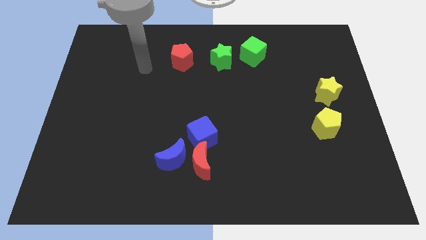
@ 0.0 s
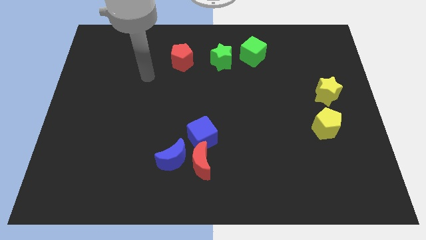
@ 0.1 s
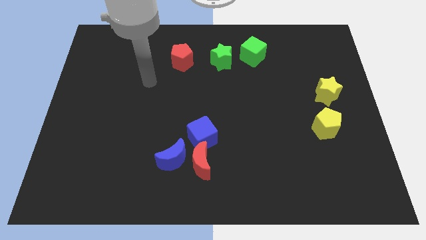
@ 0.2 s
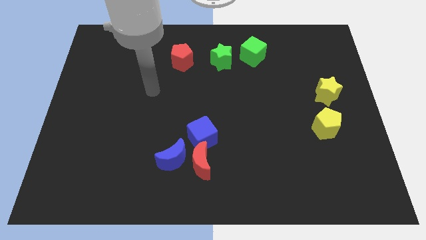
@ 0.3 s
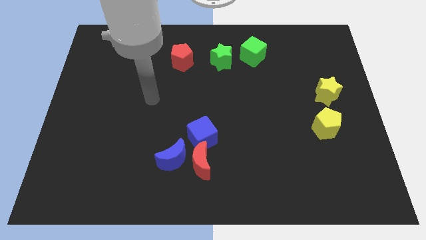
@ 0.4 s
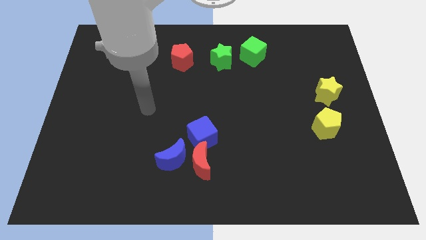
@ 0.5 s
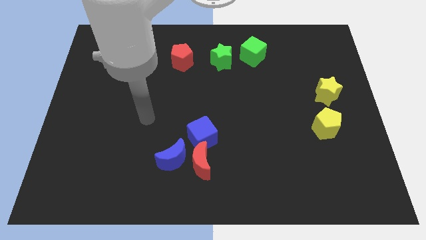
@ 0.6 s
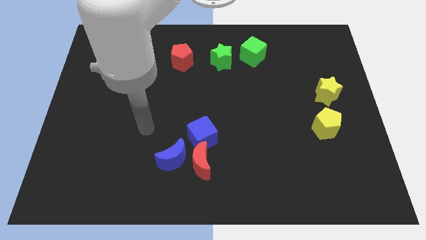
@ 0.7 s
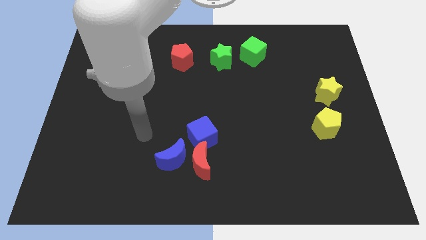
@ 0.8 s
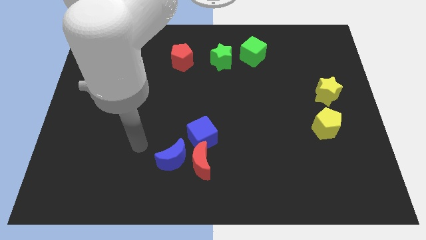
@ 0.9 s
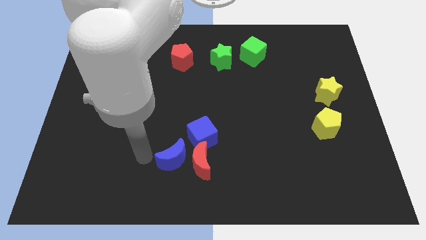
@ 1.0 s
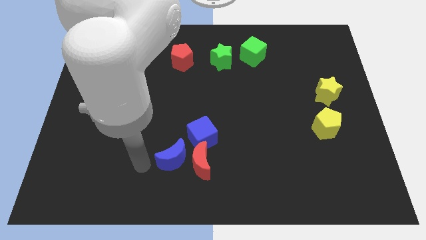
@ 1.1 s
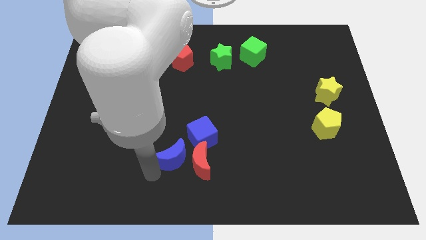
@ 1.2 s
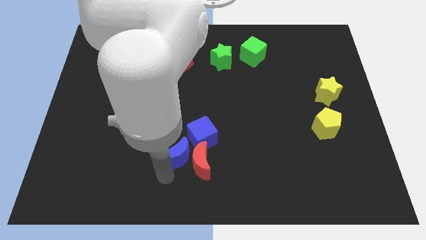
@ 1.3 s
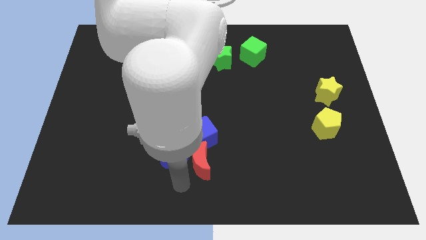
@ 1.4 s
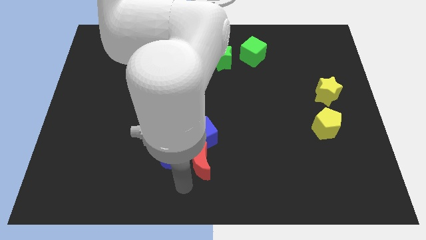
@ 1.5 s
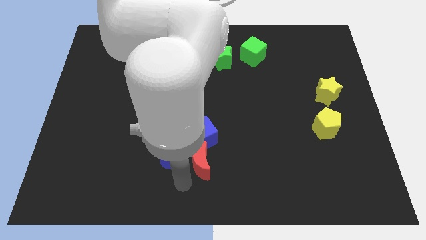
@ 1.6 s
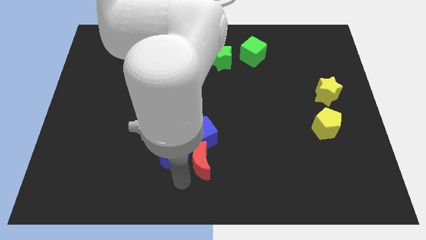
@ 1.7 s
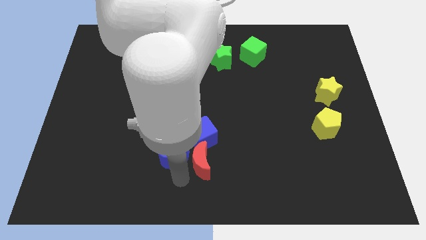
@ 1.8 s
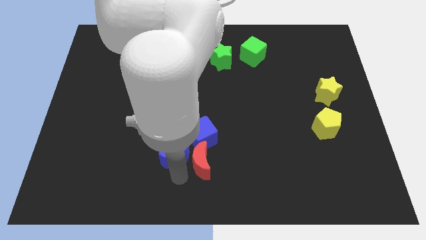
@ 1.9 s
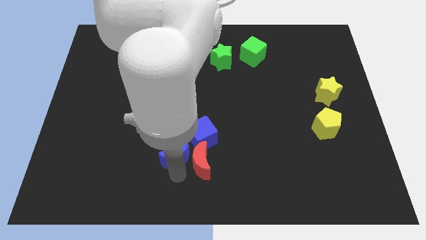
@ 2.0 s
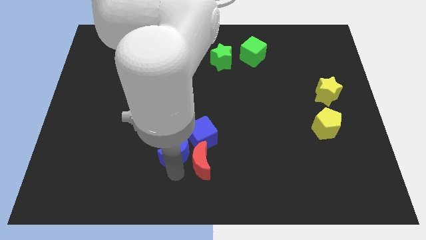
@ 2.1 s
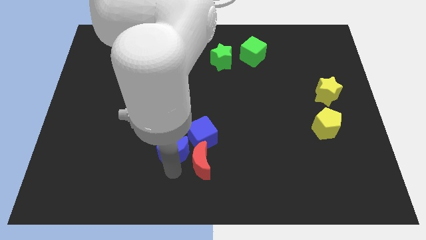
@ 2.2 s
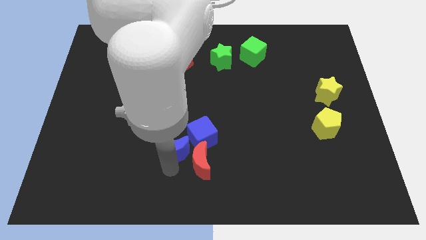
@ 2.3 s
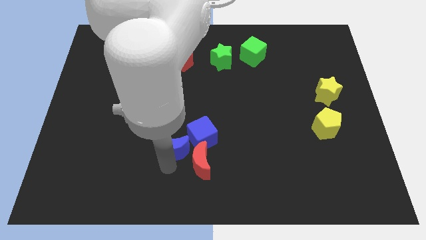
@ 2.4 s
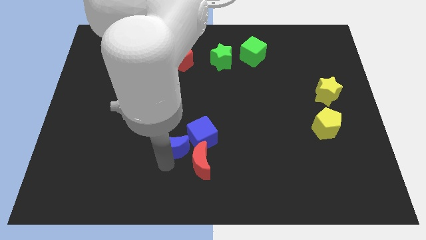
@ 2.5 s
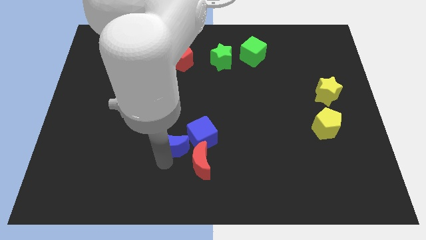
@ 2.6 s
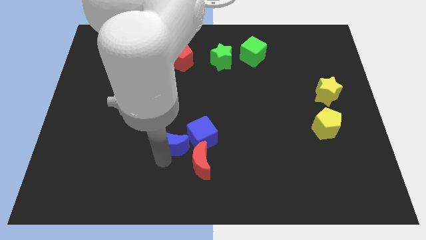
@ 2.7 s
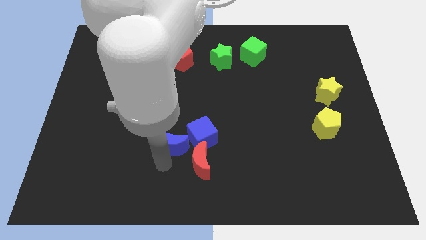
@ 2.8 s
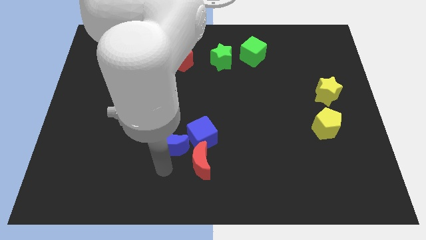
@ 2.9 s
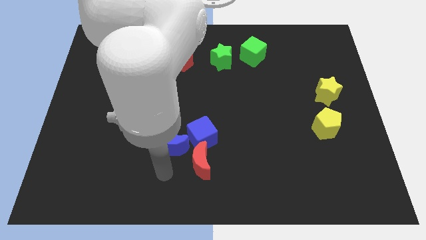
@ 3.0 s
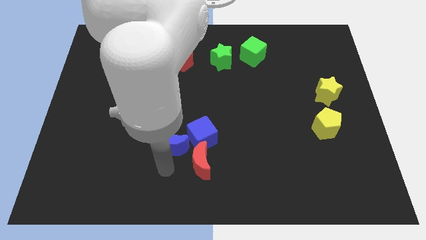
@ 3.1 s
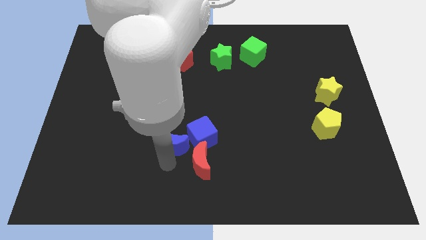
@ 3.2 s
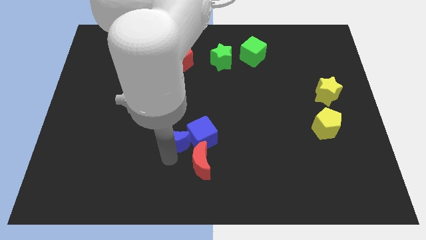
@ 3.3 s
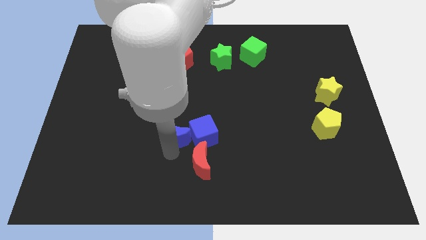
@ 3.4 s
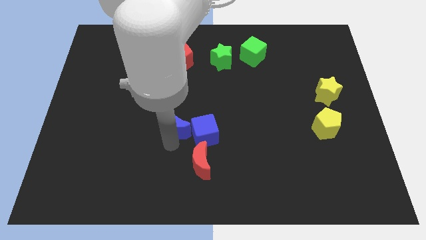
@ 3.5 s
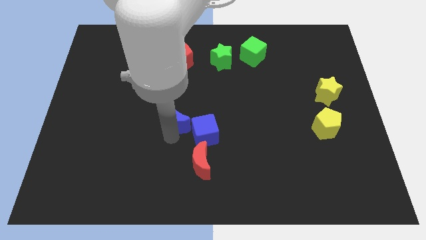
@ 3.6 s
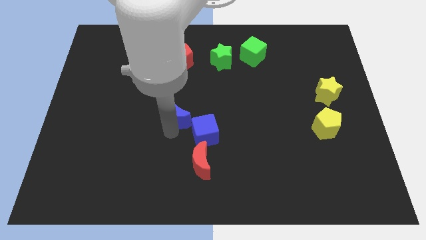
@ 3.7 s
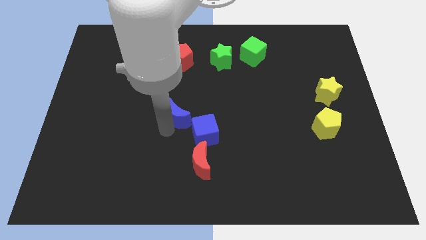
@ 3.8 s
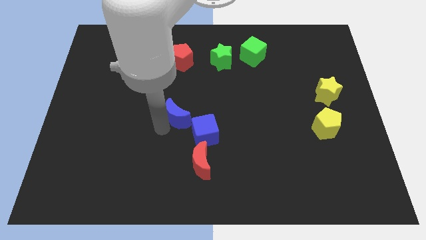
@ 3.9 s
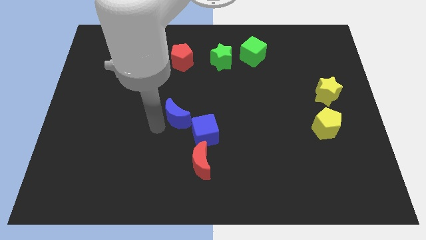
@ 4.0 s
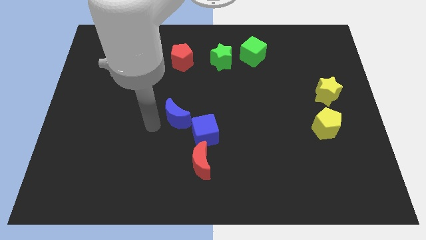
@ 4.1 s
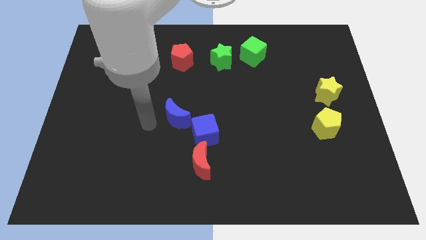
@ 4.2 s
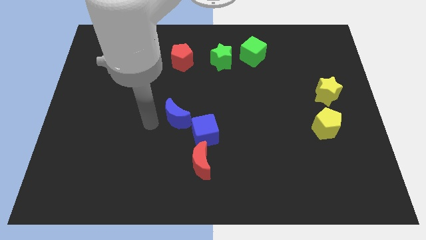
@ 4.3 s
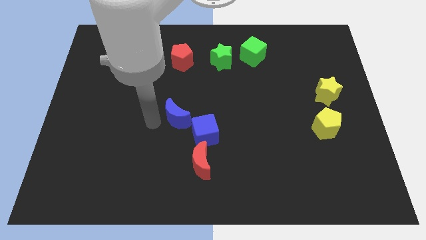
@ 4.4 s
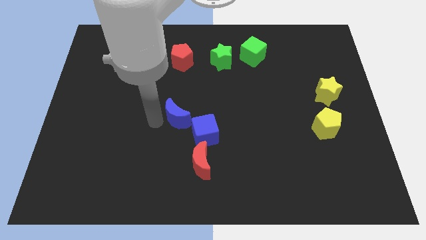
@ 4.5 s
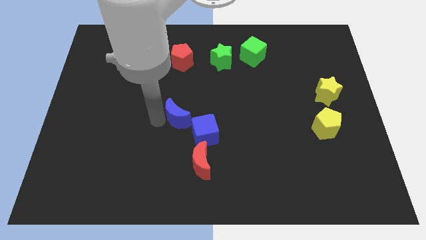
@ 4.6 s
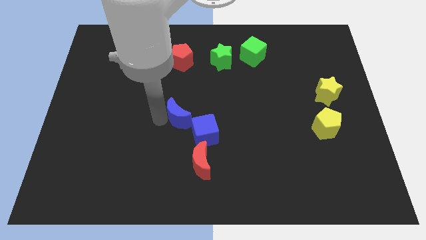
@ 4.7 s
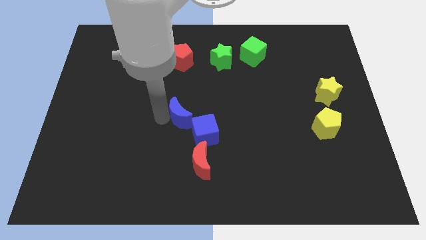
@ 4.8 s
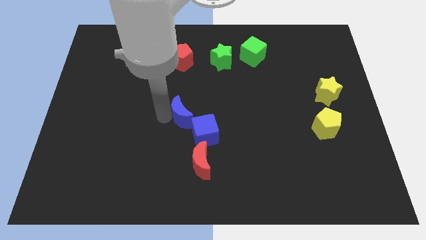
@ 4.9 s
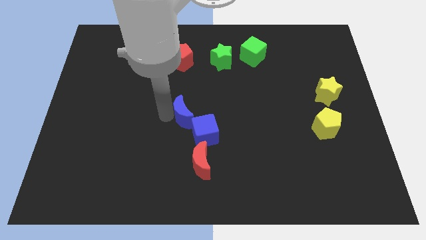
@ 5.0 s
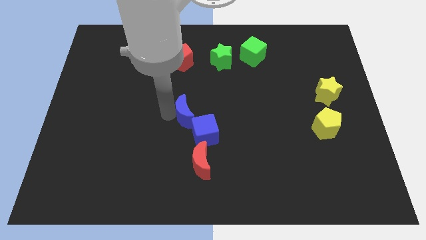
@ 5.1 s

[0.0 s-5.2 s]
slide the blue moon to the top of the blue cube

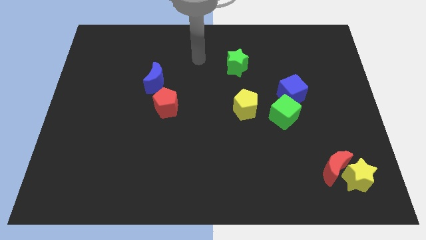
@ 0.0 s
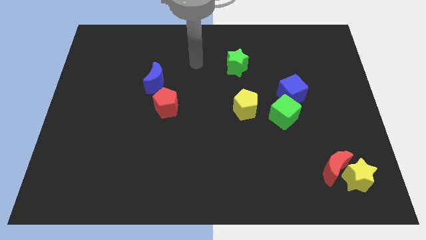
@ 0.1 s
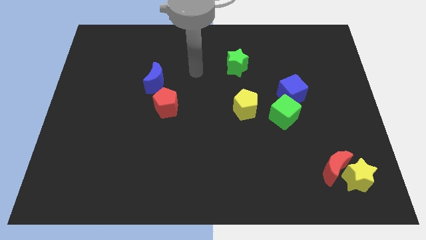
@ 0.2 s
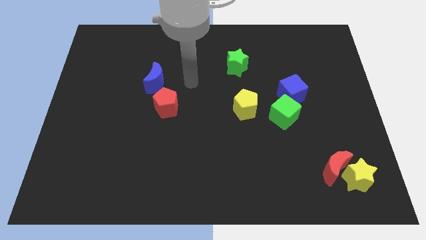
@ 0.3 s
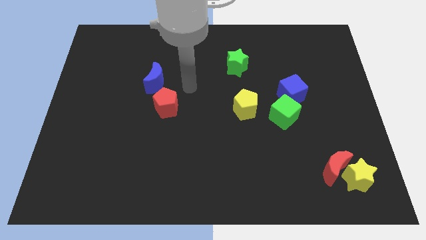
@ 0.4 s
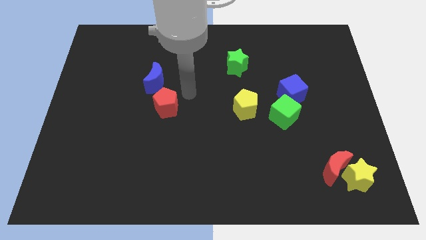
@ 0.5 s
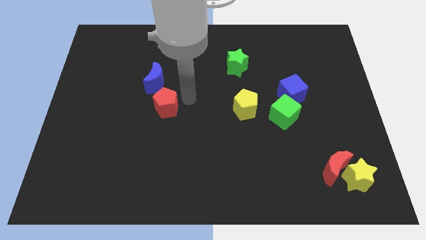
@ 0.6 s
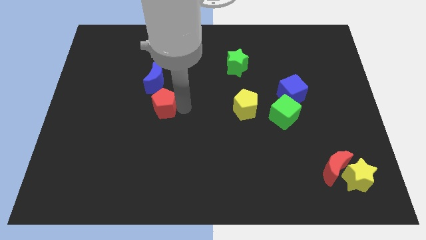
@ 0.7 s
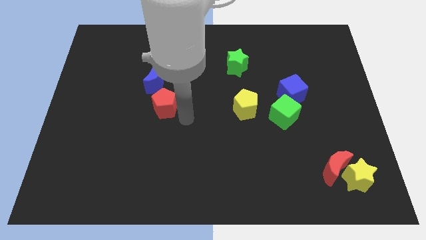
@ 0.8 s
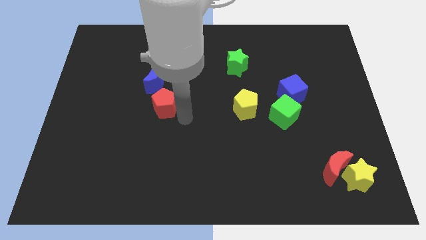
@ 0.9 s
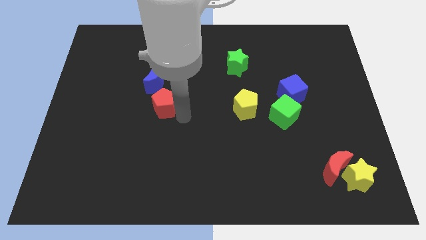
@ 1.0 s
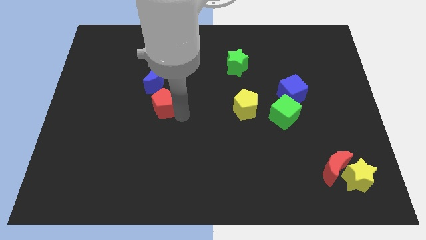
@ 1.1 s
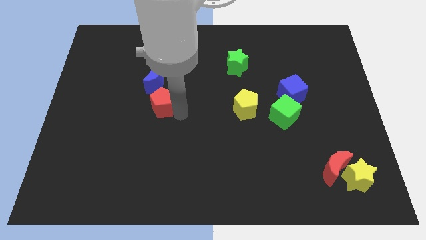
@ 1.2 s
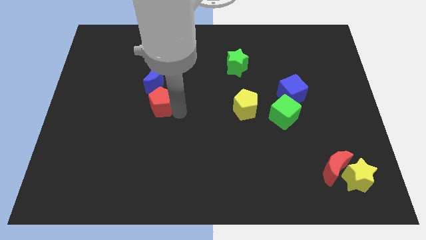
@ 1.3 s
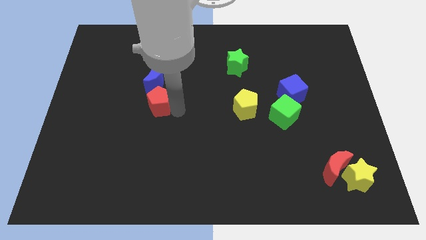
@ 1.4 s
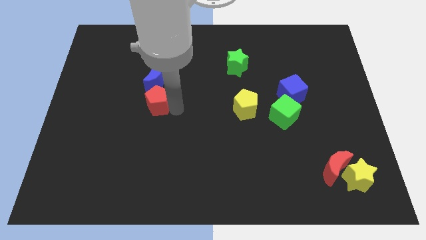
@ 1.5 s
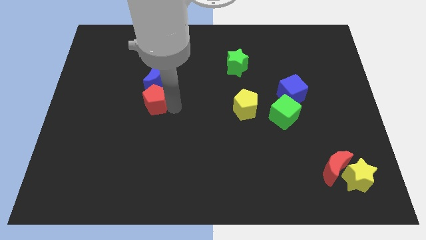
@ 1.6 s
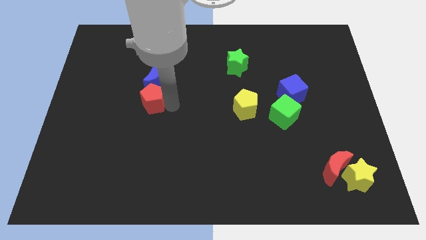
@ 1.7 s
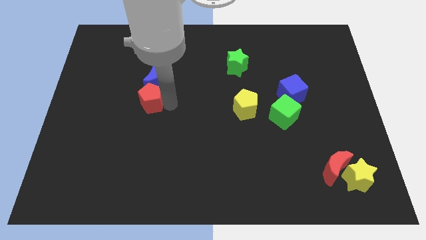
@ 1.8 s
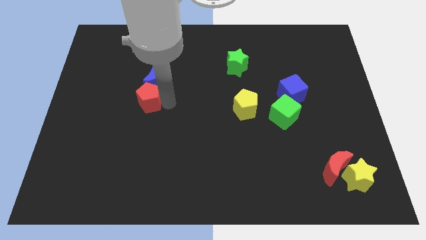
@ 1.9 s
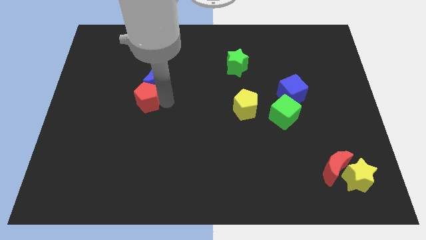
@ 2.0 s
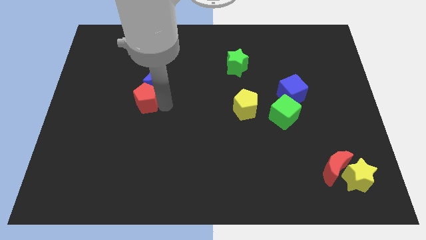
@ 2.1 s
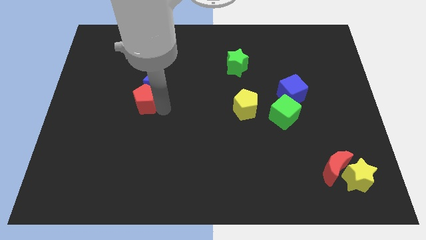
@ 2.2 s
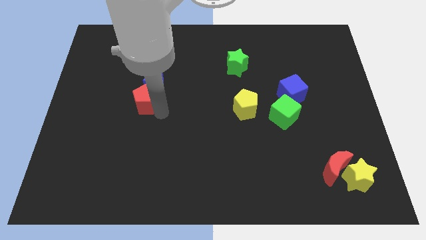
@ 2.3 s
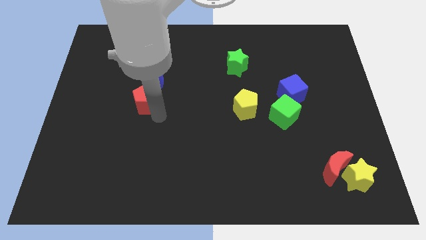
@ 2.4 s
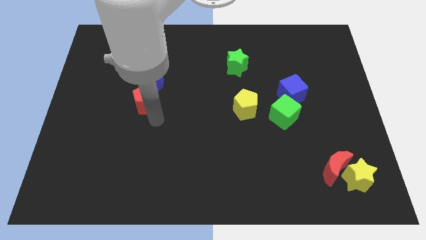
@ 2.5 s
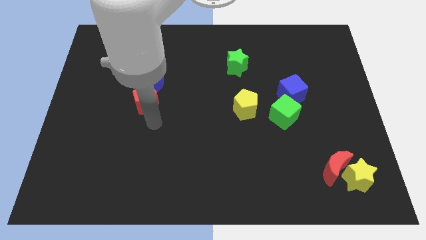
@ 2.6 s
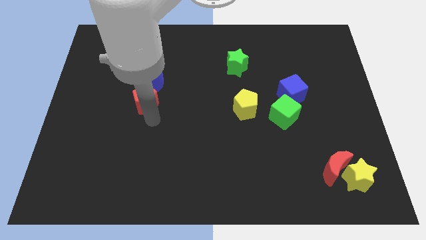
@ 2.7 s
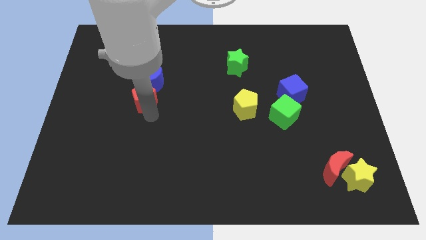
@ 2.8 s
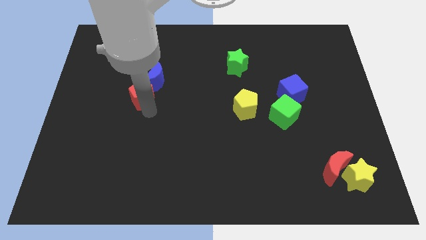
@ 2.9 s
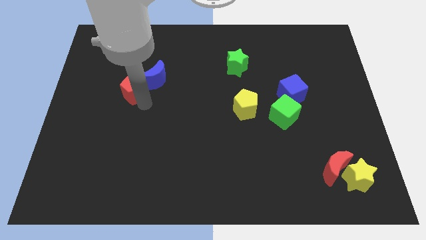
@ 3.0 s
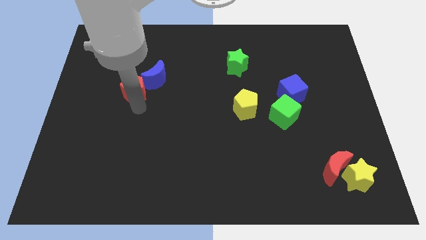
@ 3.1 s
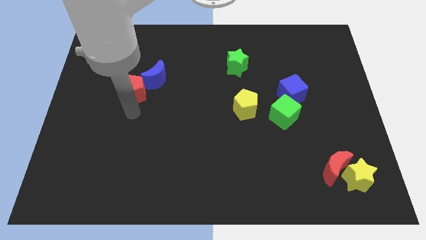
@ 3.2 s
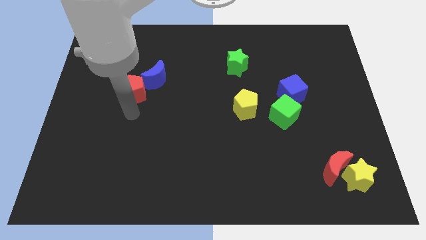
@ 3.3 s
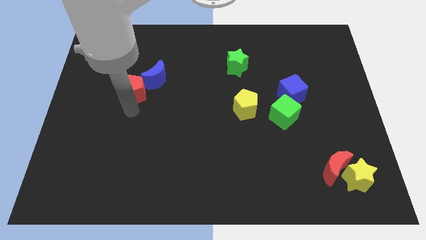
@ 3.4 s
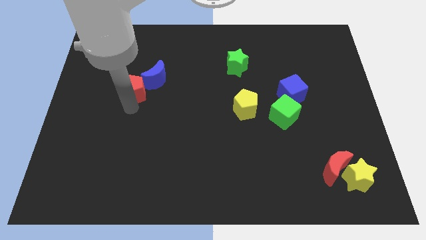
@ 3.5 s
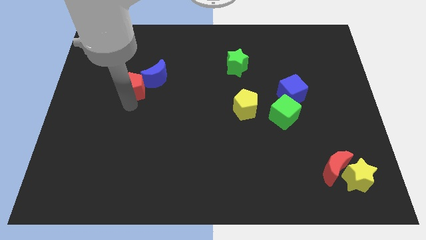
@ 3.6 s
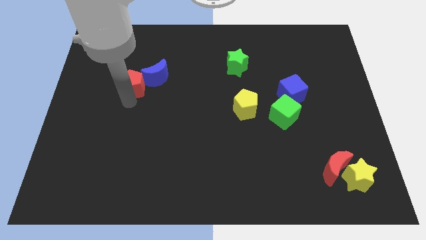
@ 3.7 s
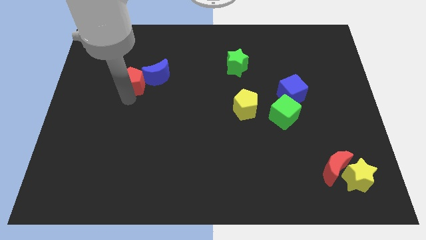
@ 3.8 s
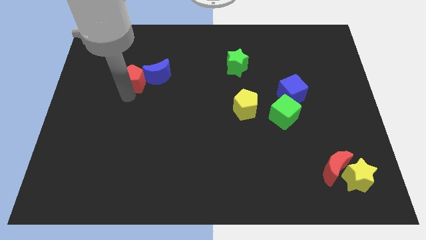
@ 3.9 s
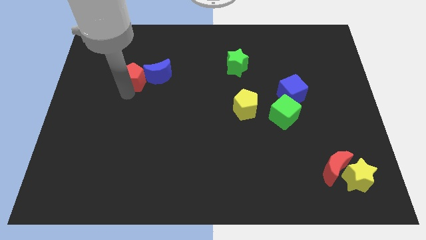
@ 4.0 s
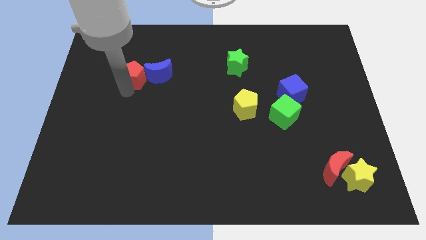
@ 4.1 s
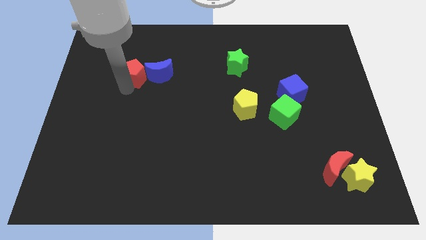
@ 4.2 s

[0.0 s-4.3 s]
push the red pentagon to the top left of the blue moon
